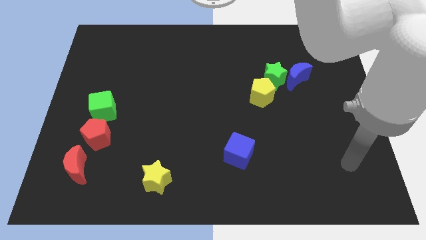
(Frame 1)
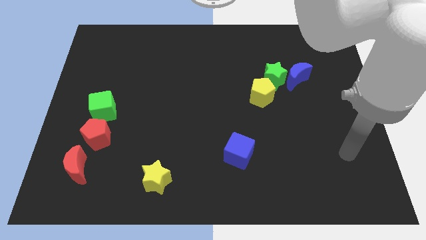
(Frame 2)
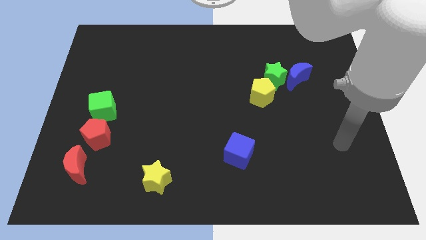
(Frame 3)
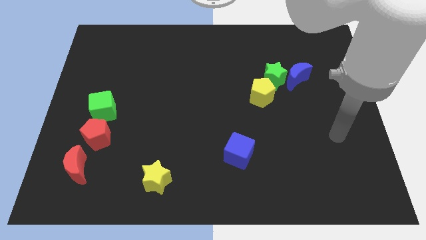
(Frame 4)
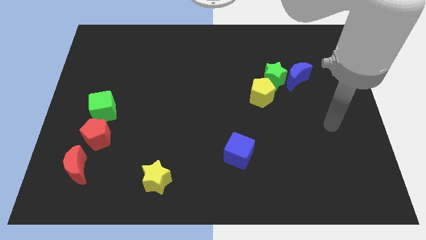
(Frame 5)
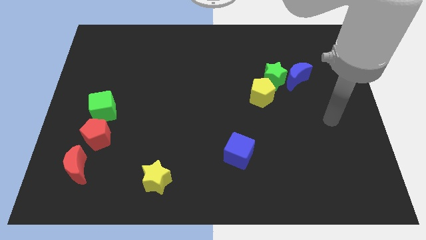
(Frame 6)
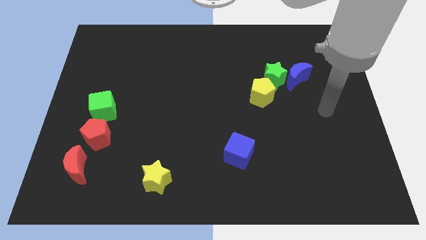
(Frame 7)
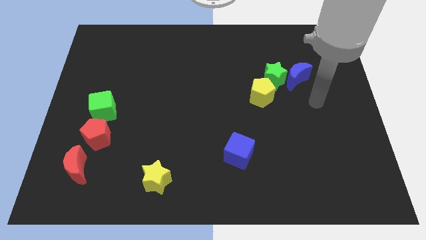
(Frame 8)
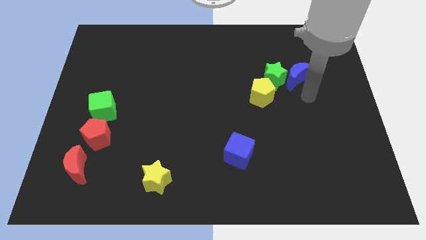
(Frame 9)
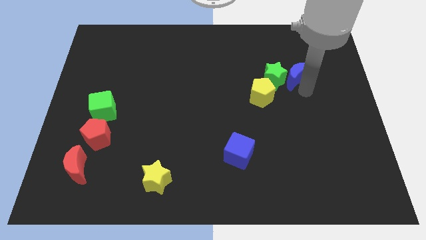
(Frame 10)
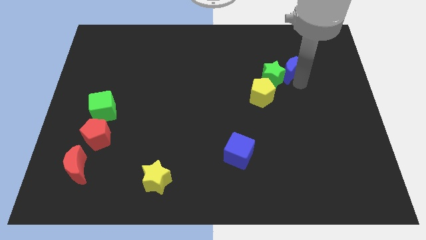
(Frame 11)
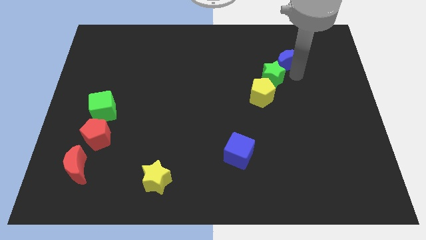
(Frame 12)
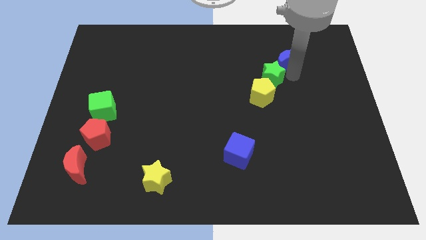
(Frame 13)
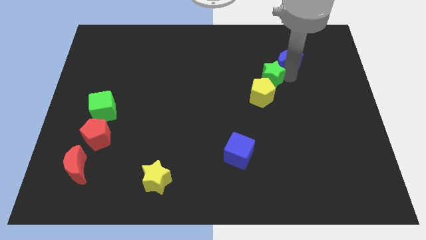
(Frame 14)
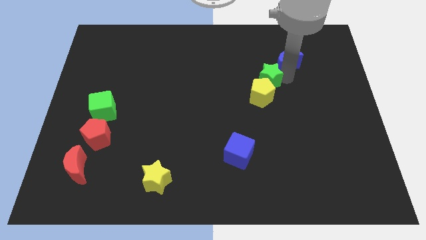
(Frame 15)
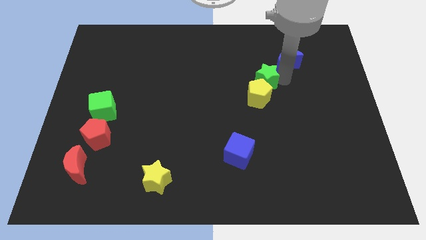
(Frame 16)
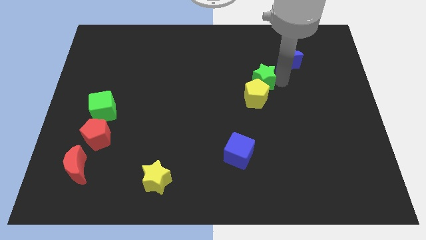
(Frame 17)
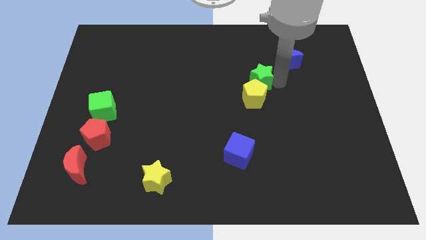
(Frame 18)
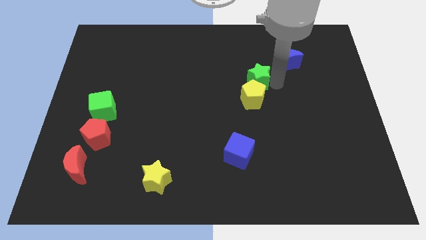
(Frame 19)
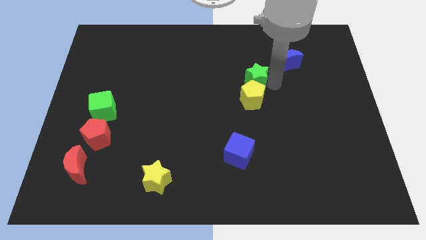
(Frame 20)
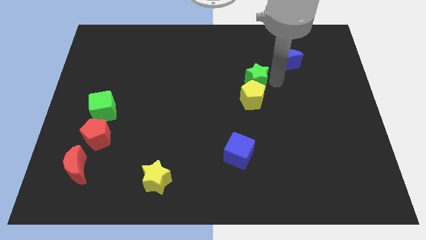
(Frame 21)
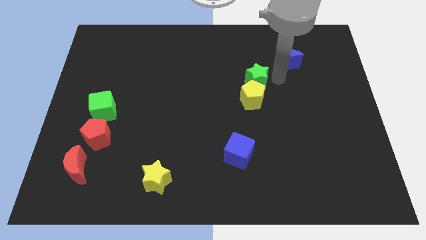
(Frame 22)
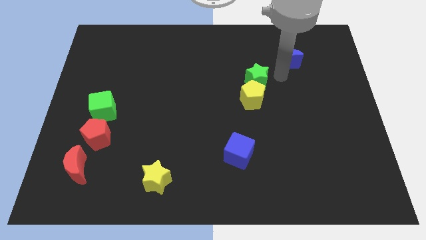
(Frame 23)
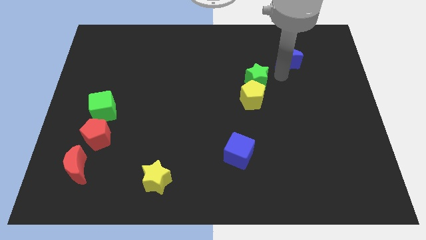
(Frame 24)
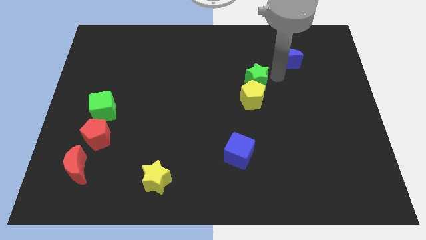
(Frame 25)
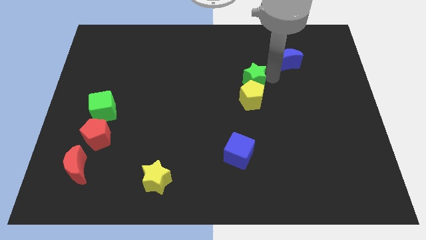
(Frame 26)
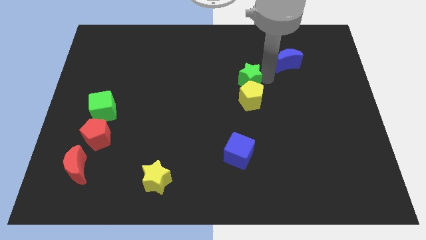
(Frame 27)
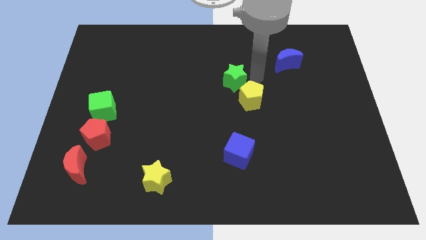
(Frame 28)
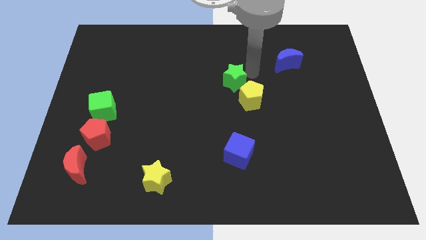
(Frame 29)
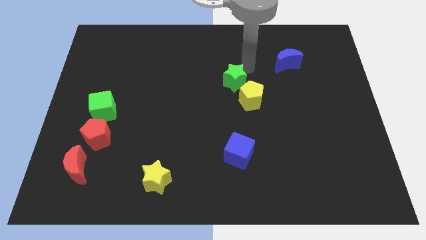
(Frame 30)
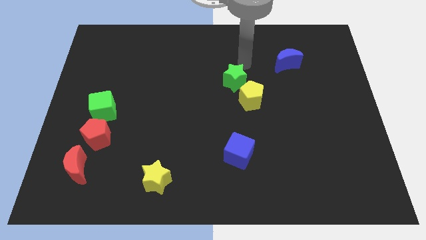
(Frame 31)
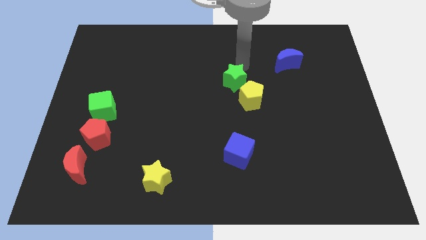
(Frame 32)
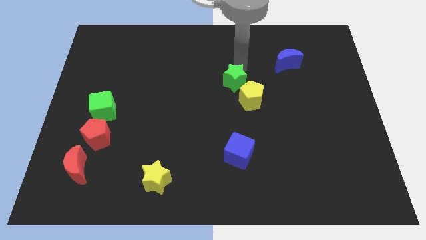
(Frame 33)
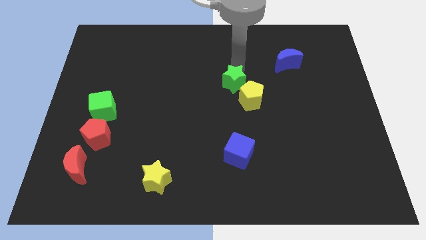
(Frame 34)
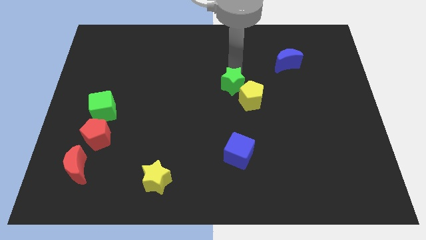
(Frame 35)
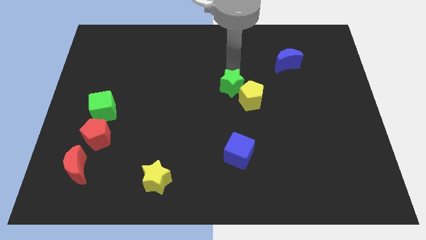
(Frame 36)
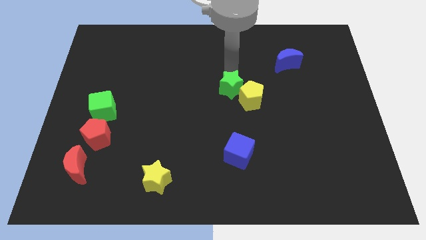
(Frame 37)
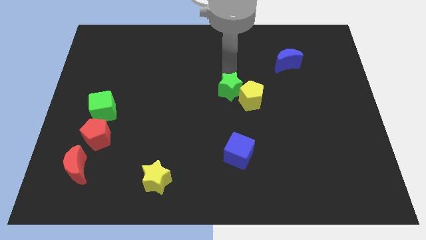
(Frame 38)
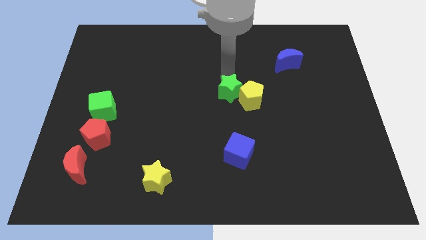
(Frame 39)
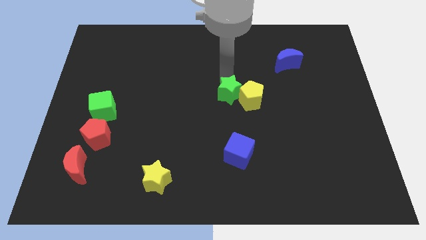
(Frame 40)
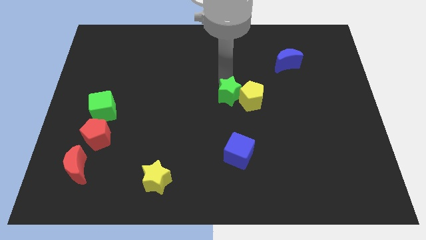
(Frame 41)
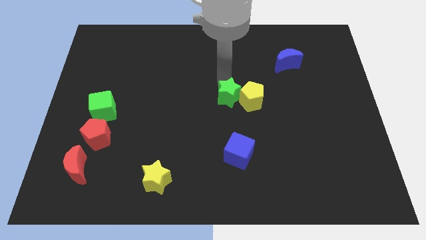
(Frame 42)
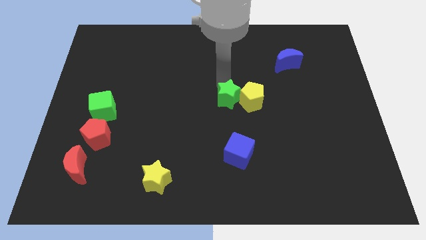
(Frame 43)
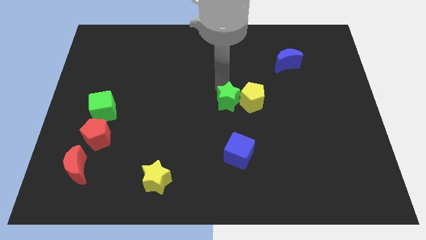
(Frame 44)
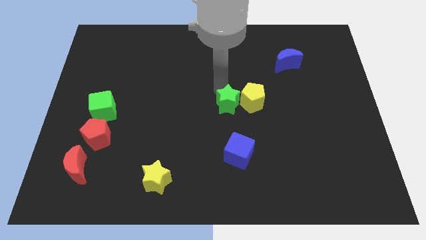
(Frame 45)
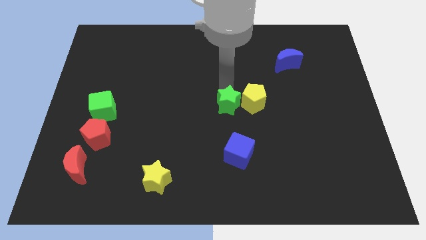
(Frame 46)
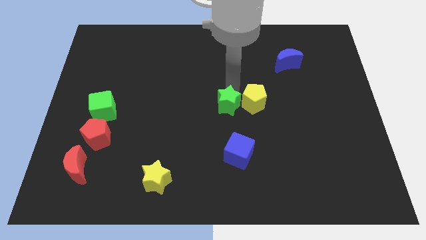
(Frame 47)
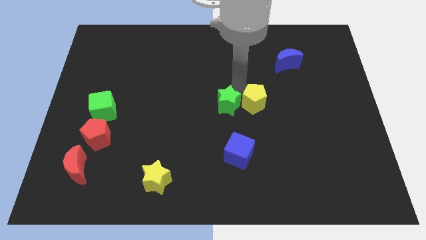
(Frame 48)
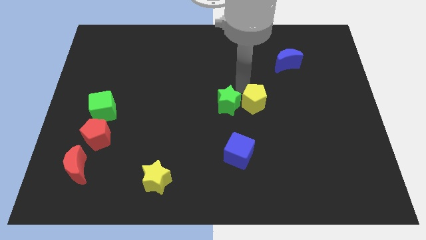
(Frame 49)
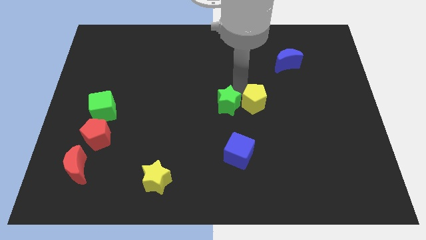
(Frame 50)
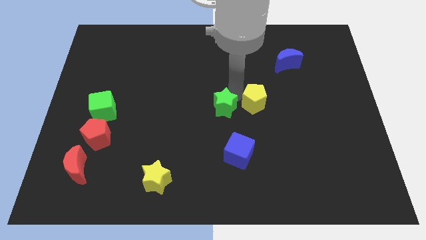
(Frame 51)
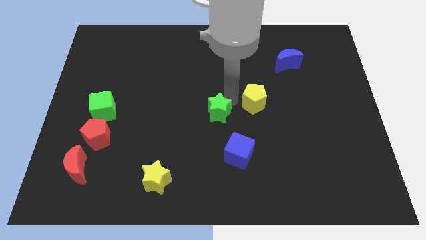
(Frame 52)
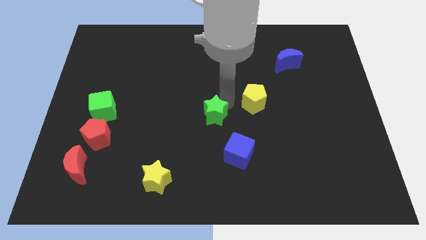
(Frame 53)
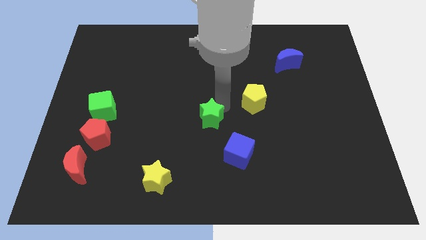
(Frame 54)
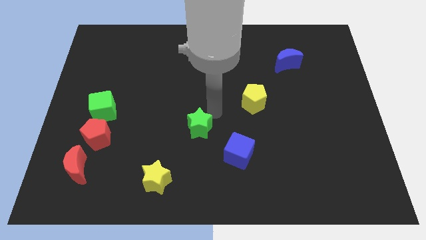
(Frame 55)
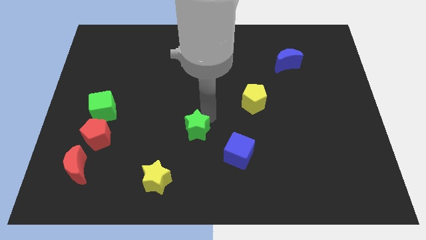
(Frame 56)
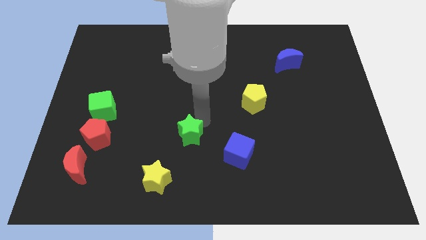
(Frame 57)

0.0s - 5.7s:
move the green star just left of the blue cube
